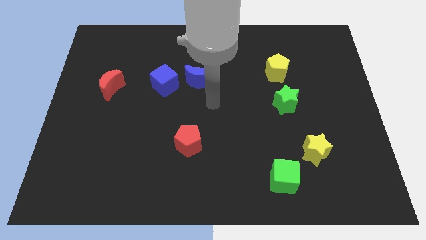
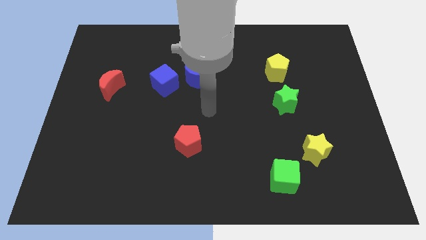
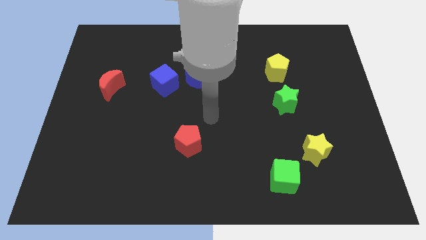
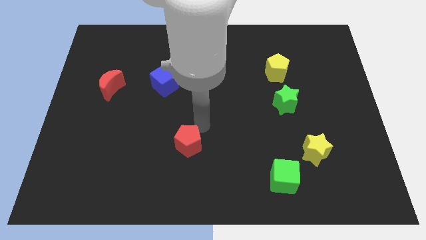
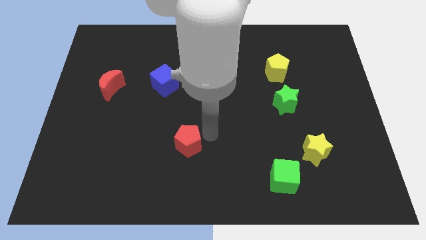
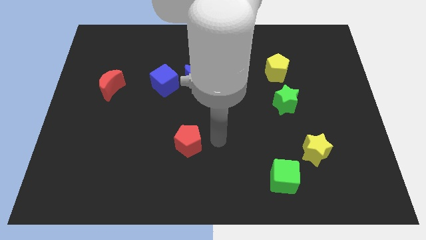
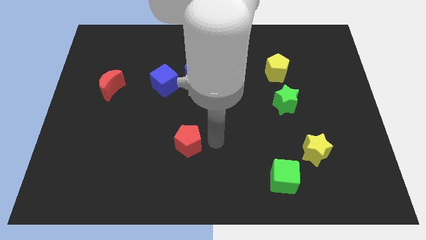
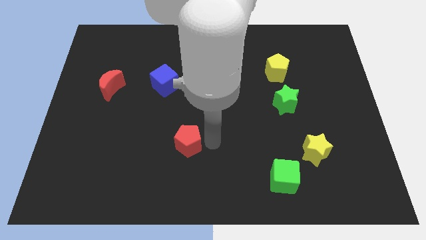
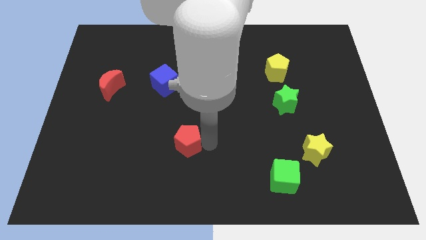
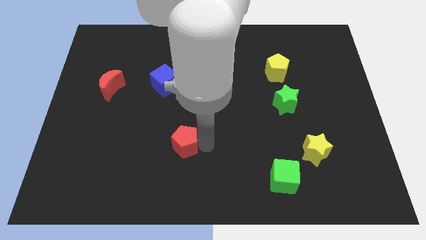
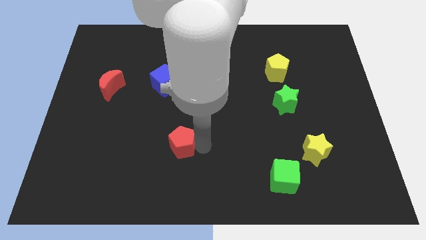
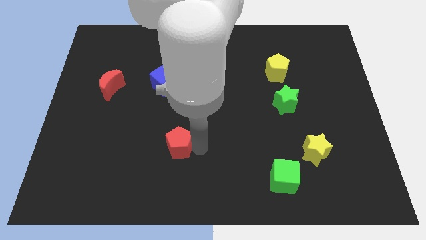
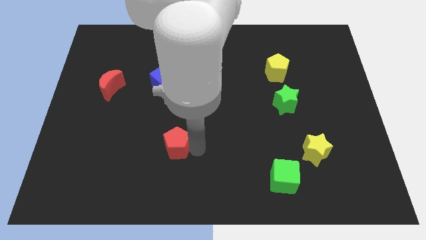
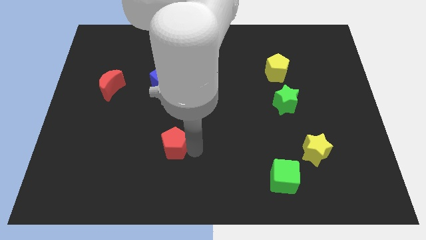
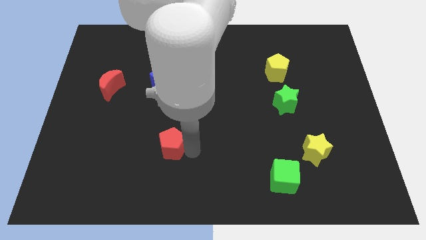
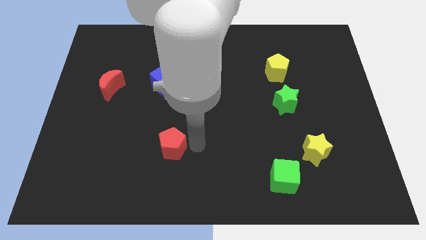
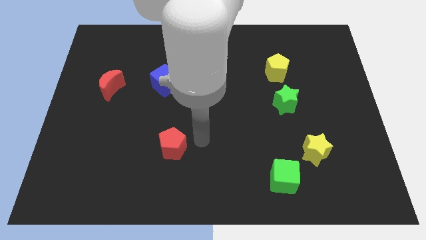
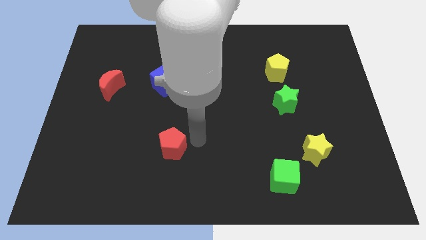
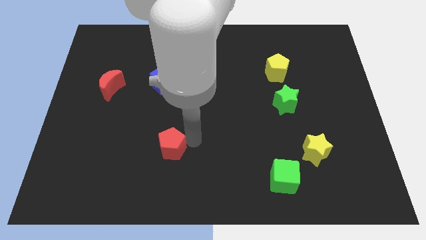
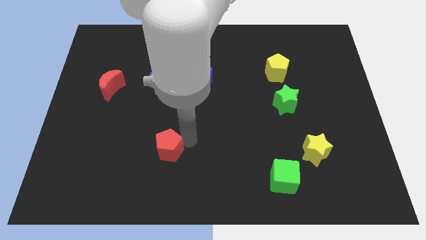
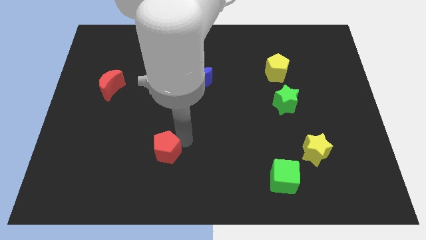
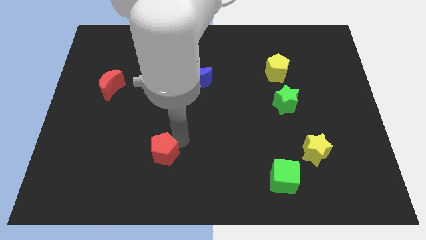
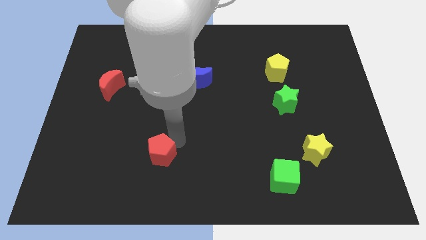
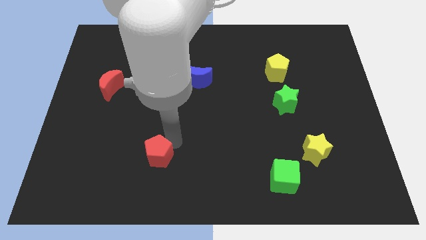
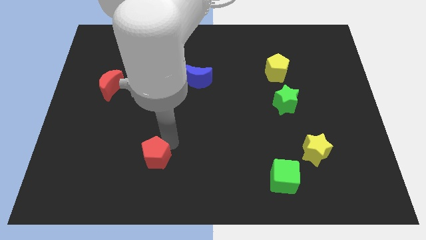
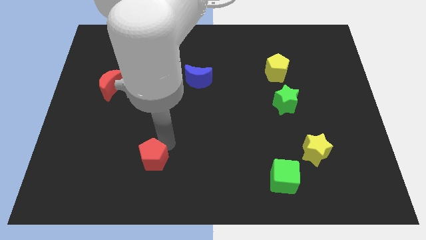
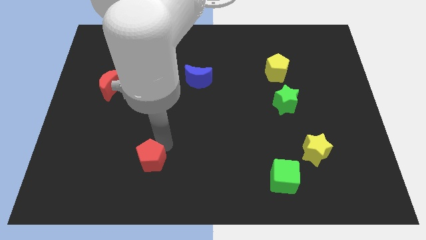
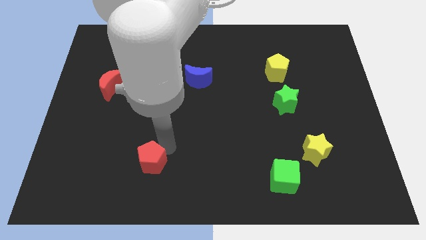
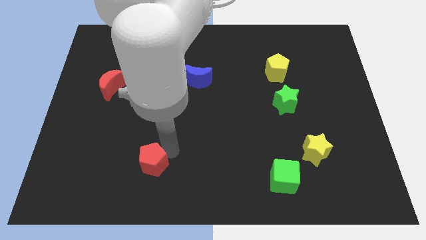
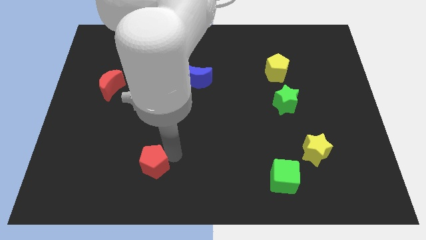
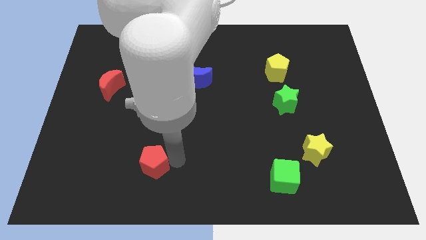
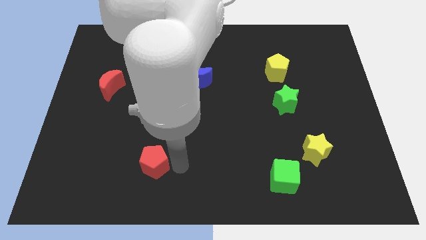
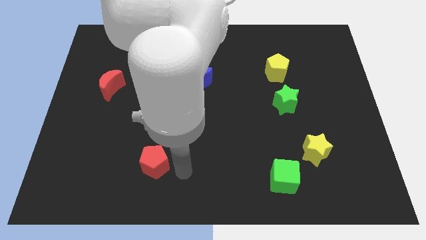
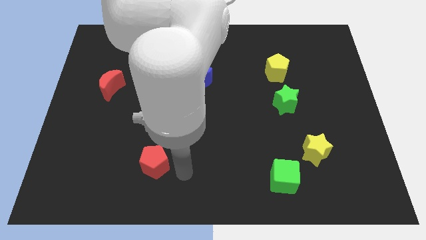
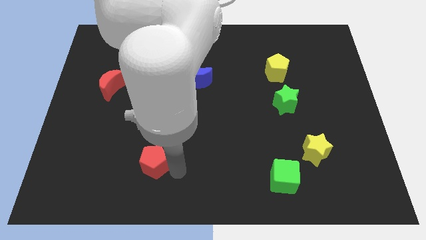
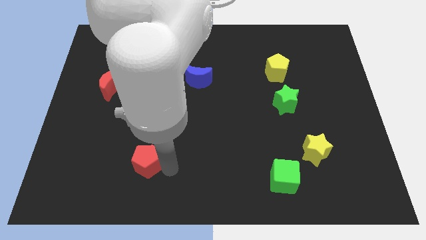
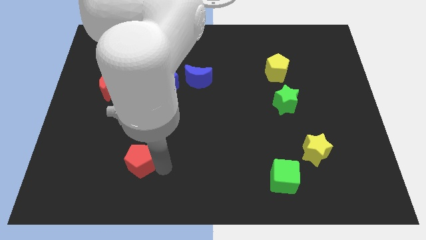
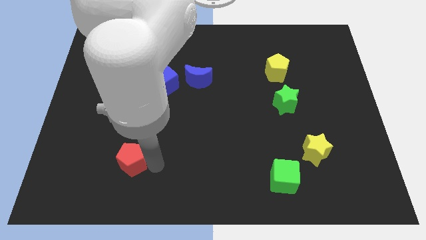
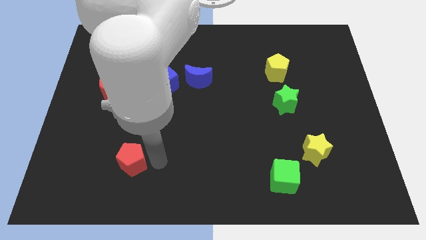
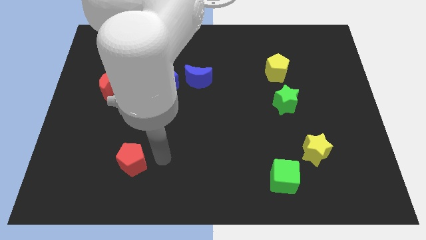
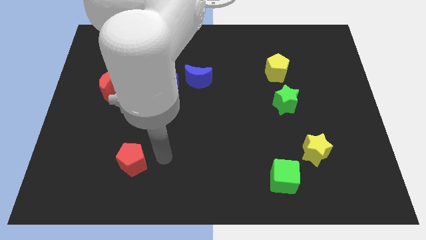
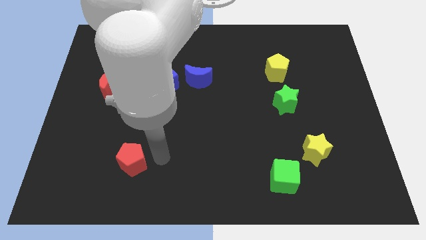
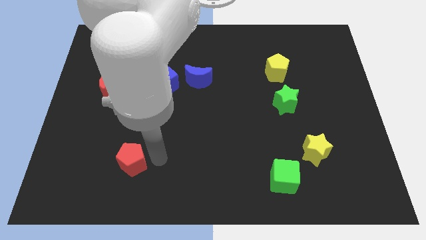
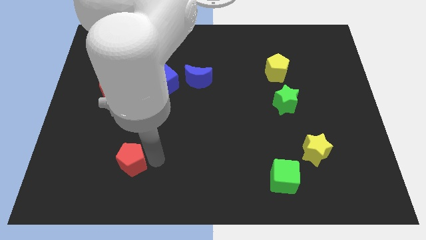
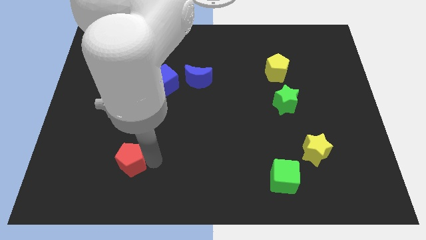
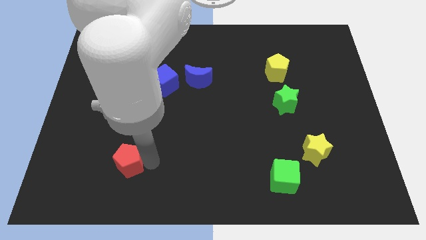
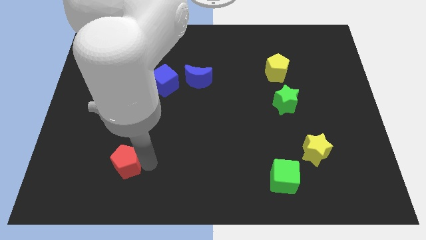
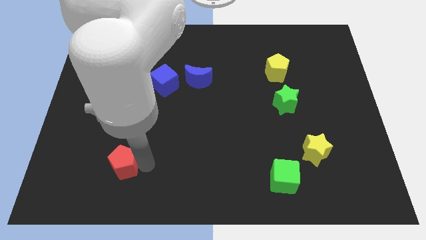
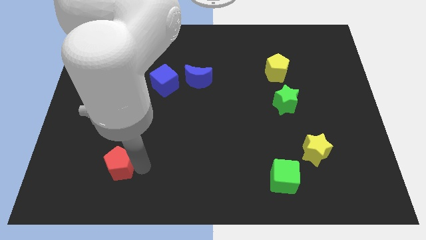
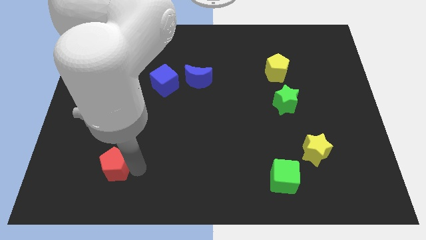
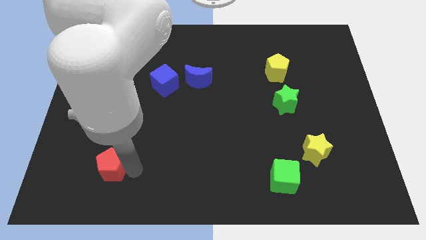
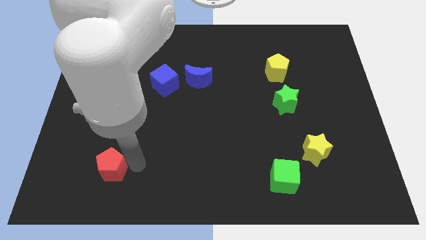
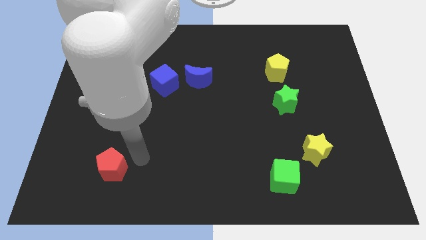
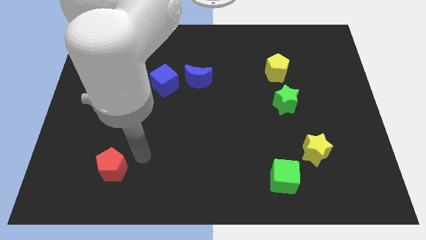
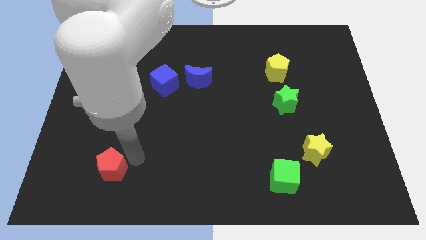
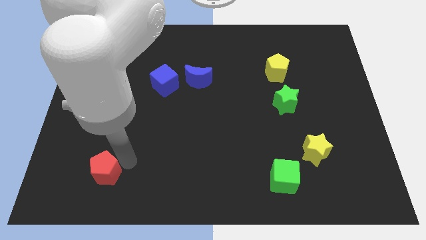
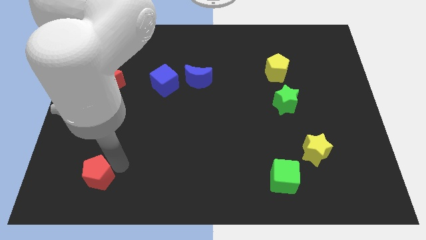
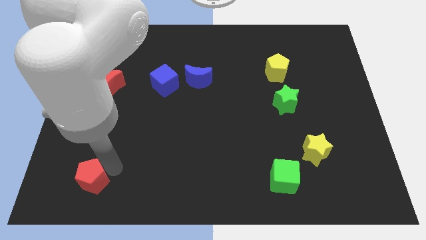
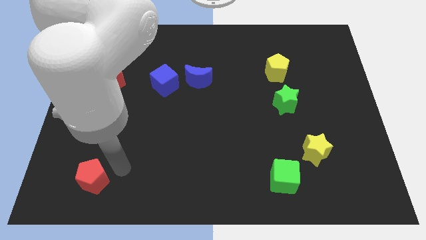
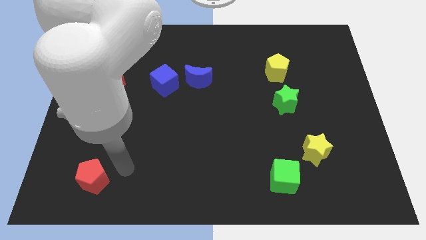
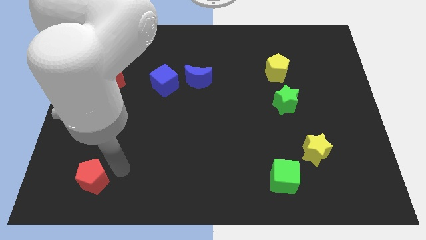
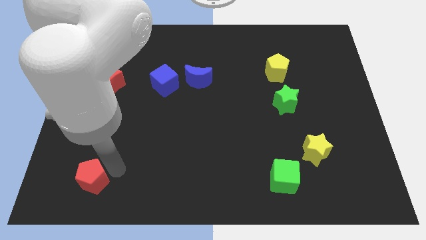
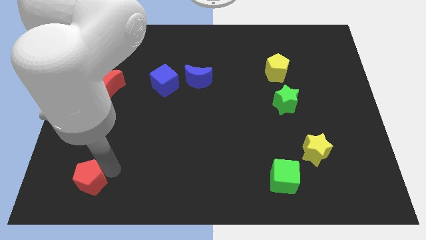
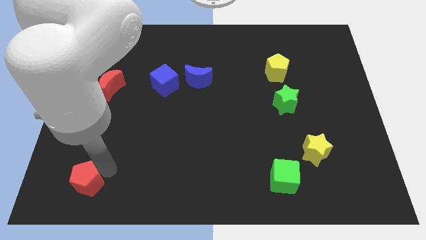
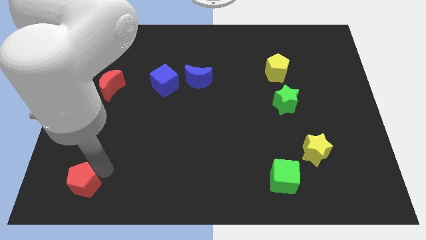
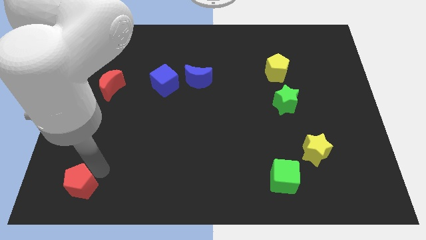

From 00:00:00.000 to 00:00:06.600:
push the red pentagon to the bottom left corner

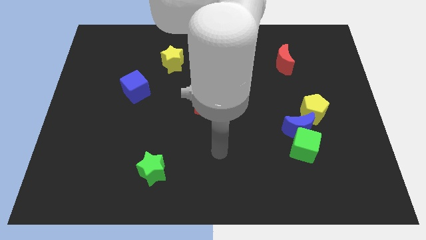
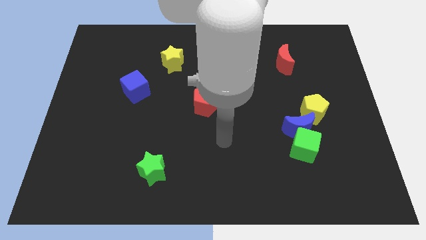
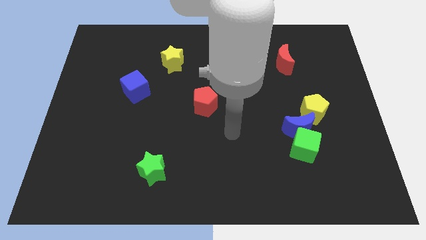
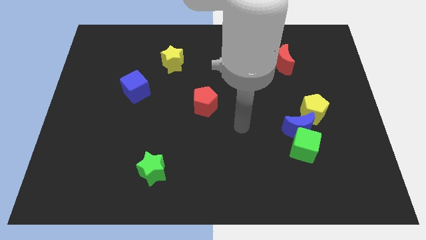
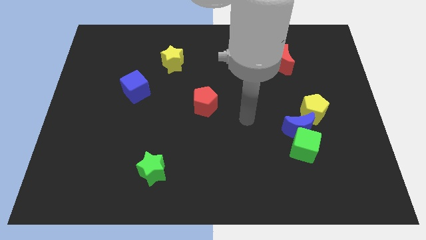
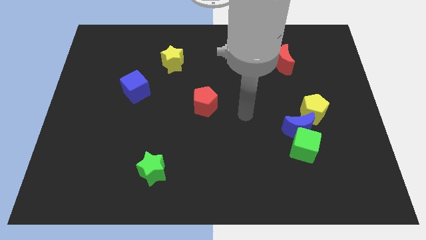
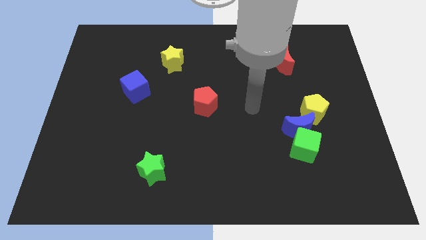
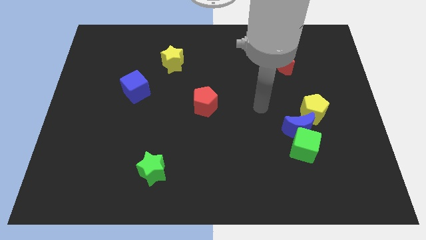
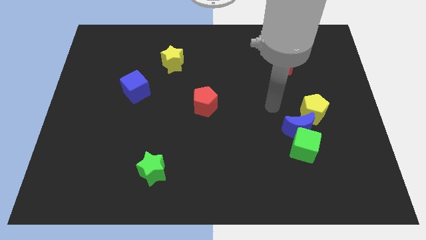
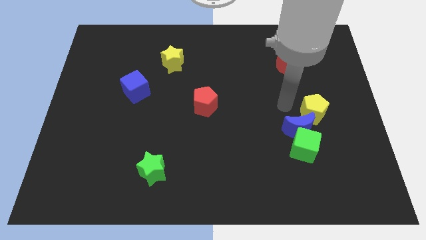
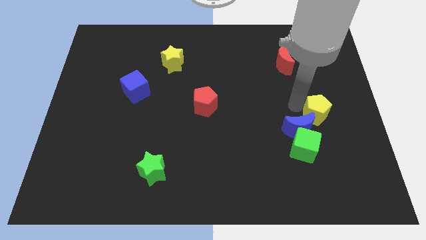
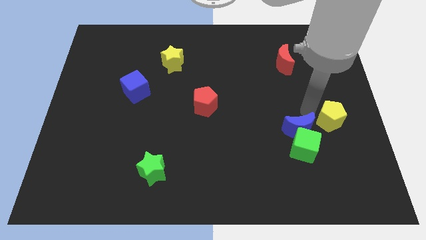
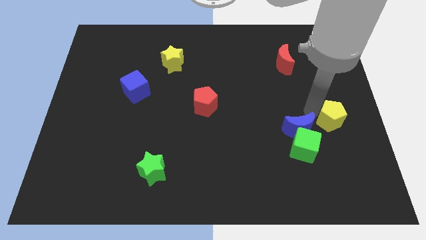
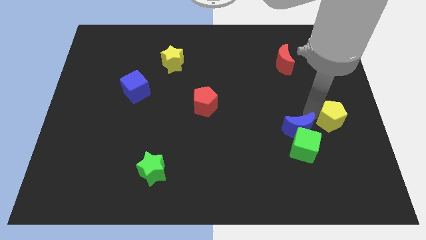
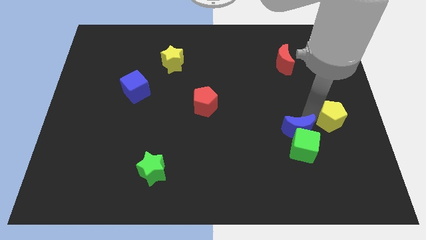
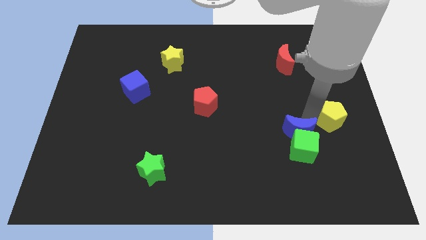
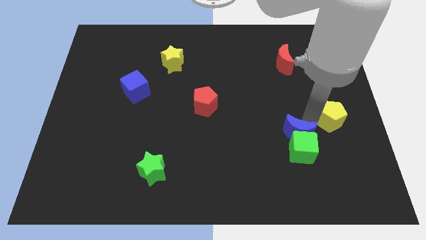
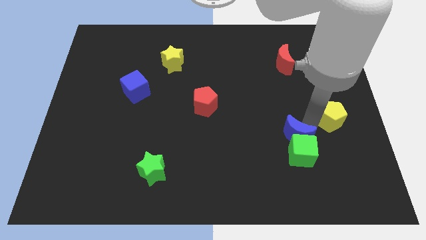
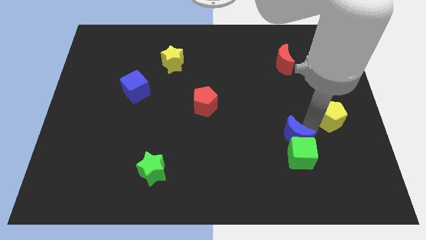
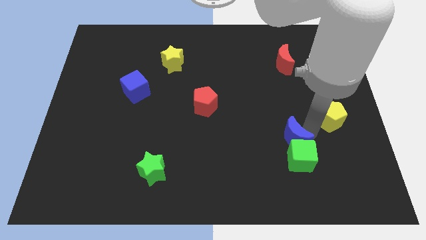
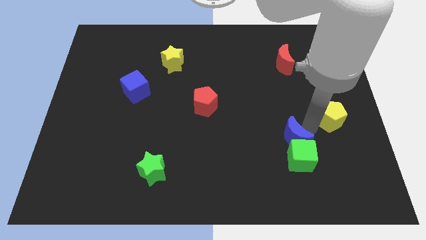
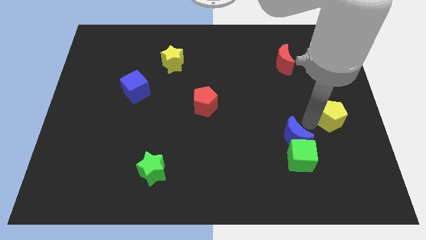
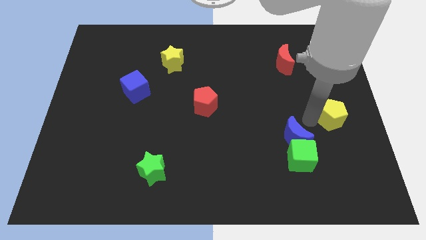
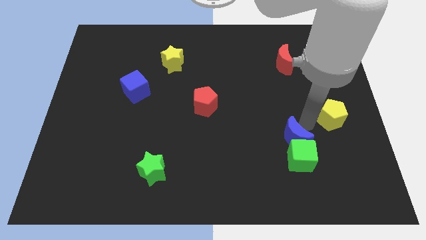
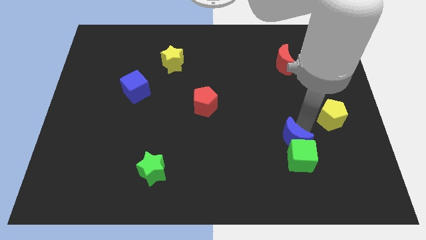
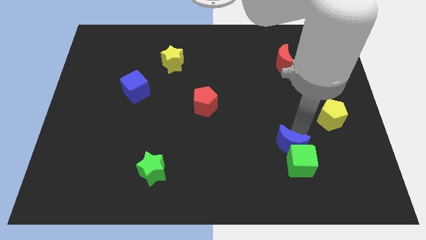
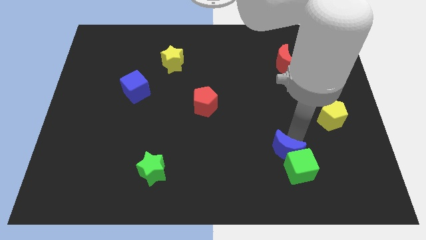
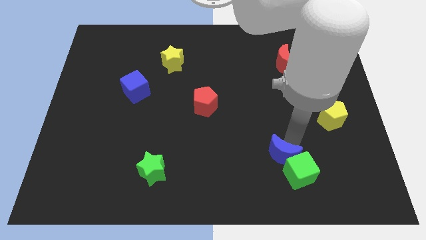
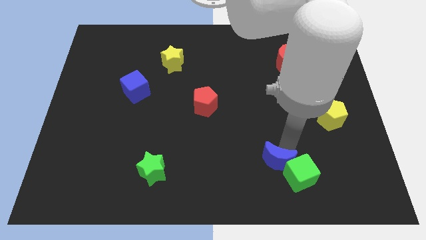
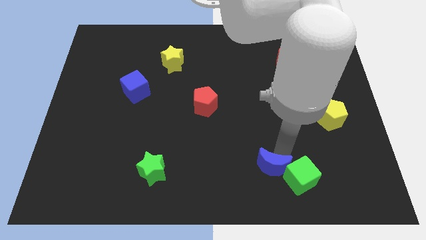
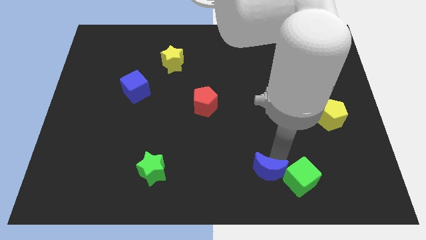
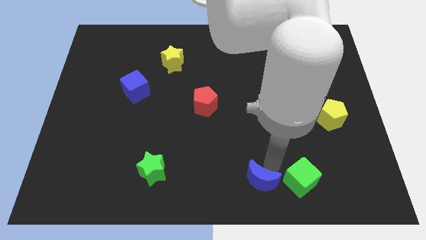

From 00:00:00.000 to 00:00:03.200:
put the blue moon to the bottom side
